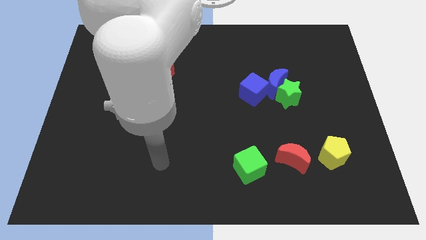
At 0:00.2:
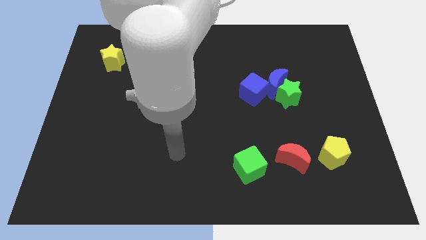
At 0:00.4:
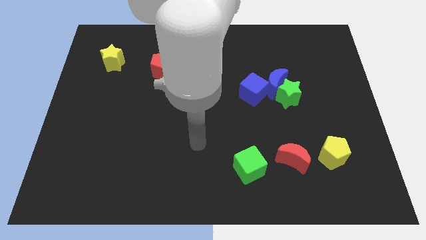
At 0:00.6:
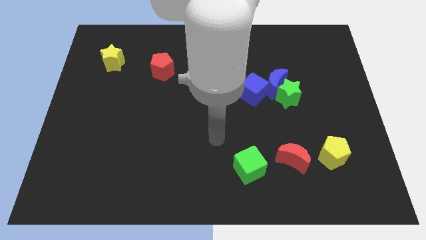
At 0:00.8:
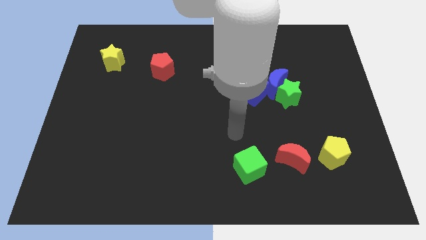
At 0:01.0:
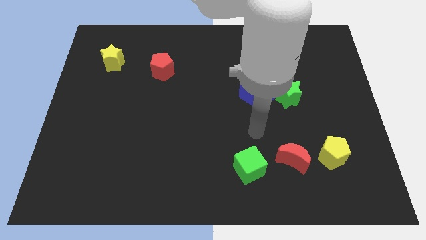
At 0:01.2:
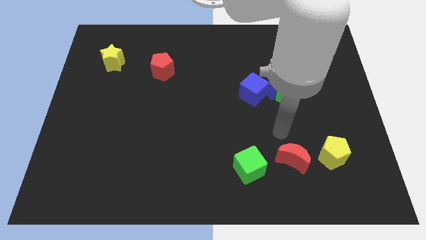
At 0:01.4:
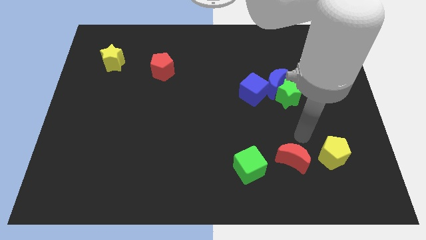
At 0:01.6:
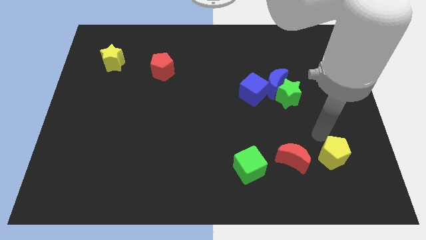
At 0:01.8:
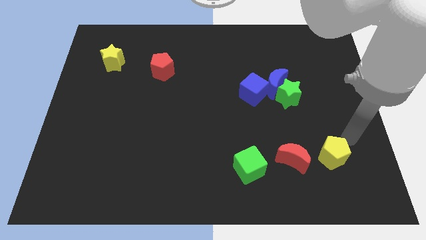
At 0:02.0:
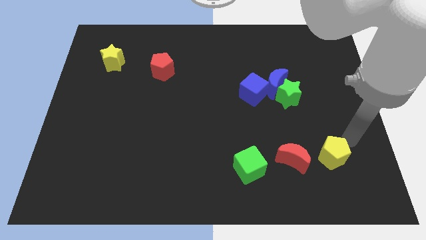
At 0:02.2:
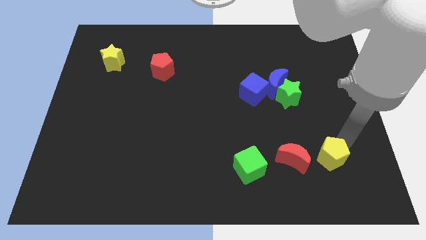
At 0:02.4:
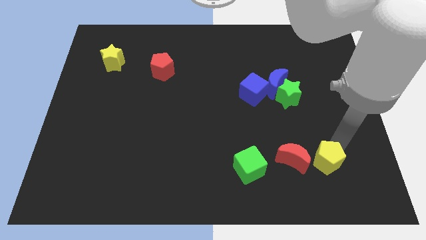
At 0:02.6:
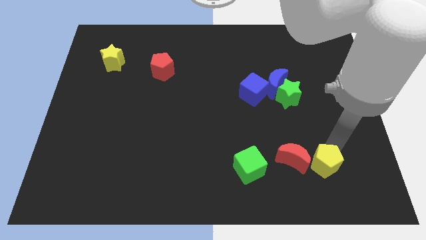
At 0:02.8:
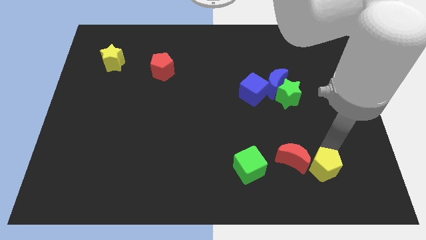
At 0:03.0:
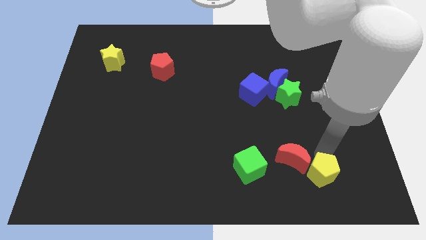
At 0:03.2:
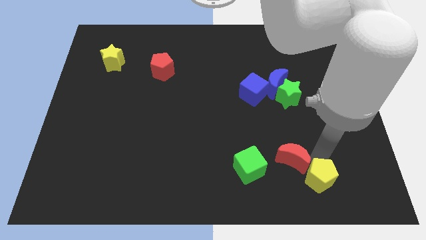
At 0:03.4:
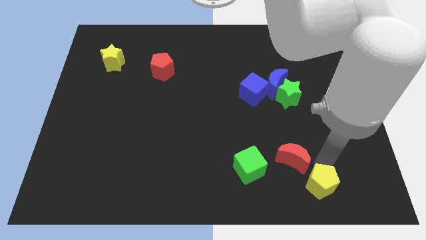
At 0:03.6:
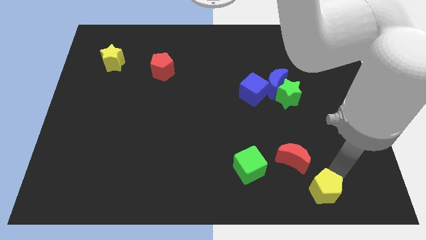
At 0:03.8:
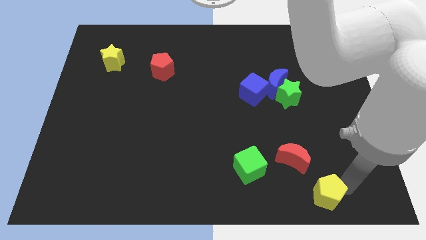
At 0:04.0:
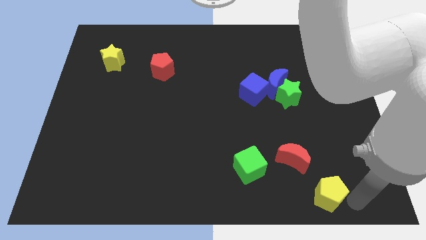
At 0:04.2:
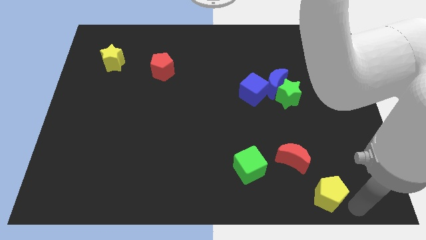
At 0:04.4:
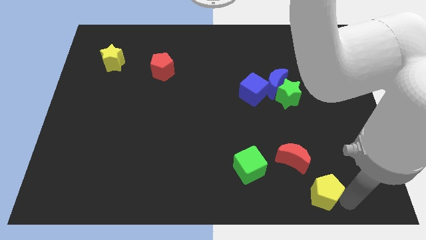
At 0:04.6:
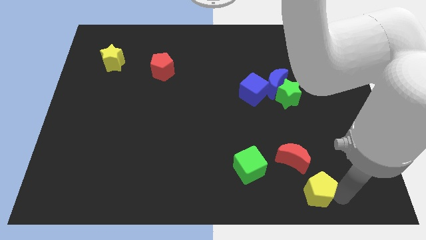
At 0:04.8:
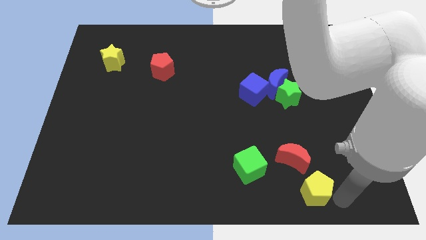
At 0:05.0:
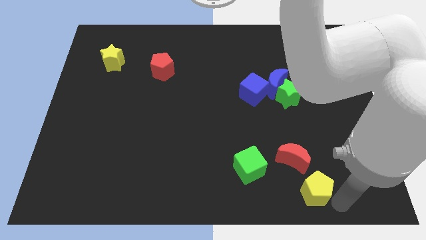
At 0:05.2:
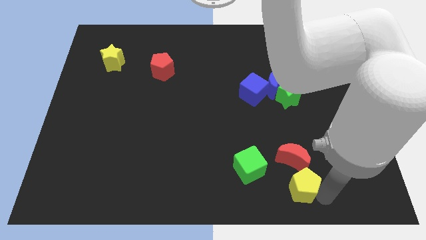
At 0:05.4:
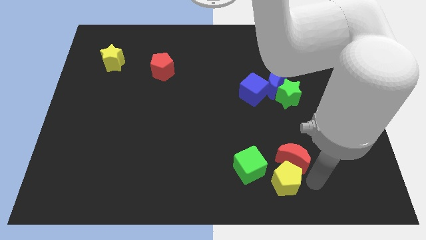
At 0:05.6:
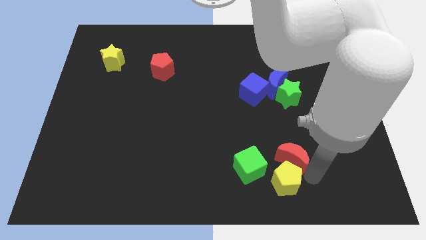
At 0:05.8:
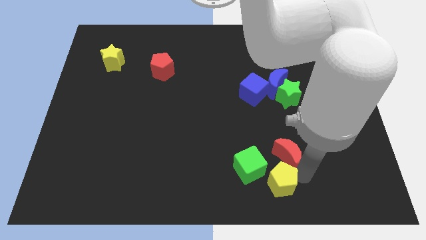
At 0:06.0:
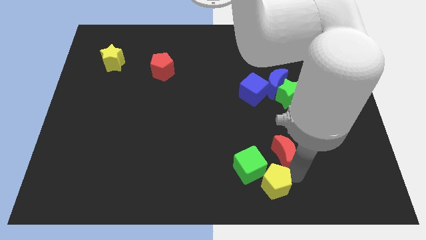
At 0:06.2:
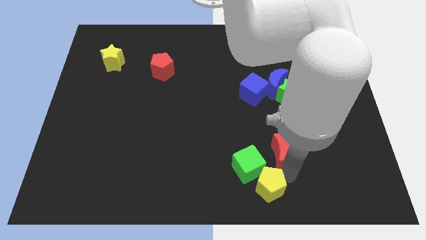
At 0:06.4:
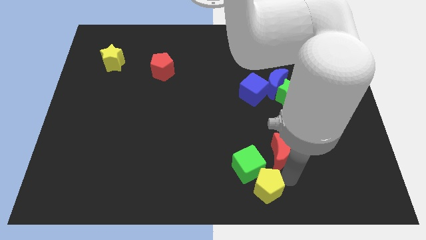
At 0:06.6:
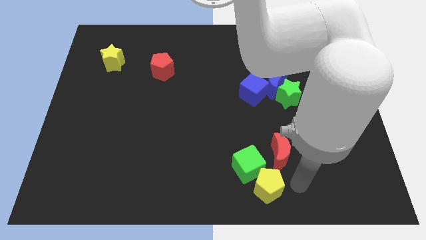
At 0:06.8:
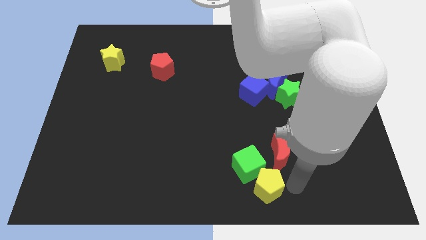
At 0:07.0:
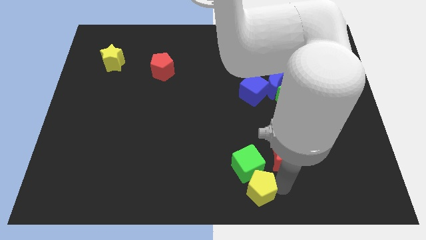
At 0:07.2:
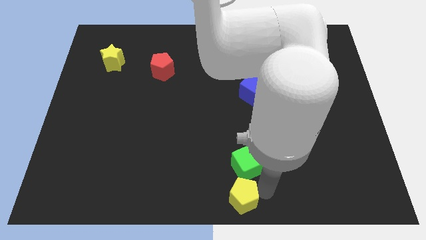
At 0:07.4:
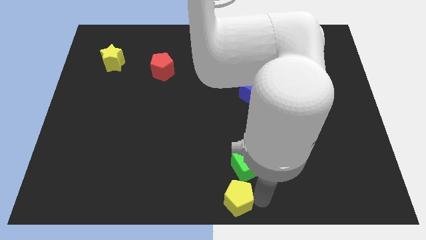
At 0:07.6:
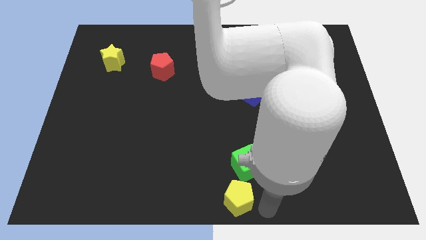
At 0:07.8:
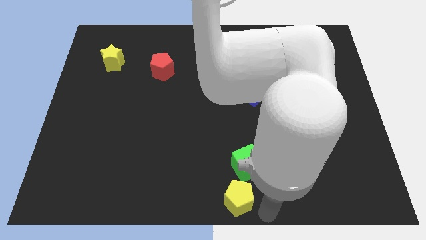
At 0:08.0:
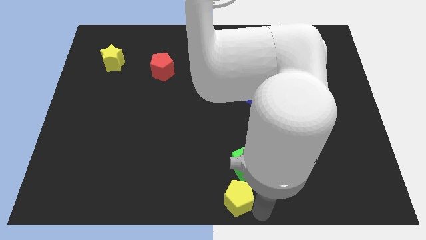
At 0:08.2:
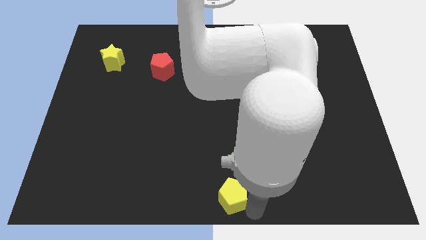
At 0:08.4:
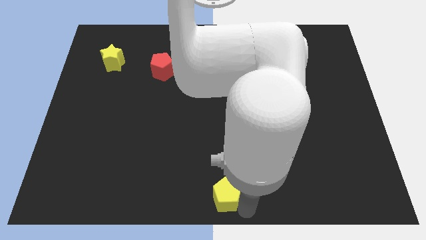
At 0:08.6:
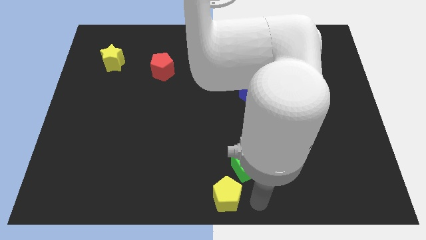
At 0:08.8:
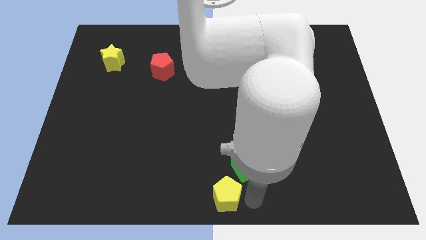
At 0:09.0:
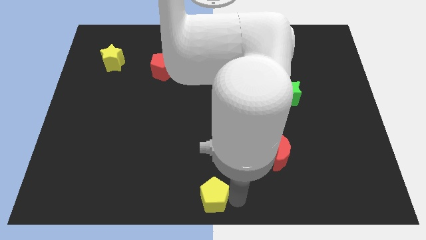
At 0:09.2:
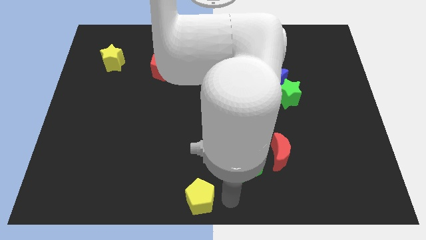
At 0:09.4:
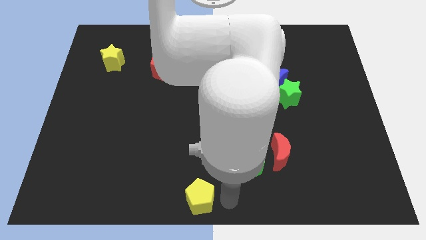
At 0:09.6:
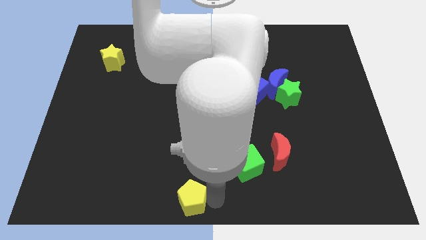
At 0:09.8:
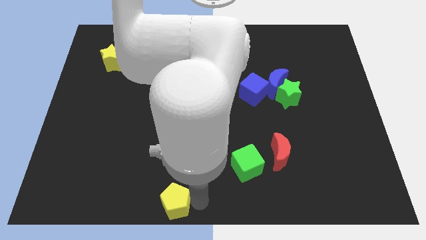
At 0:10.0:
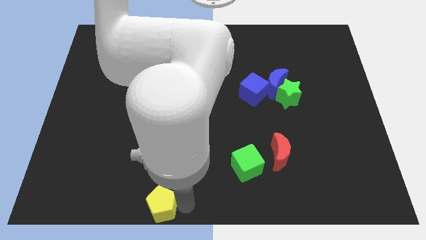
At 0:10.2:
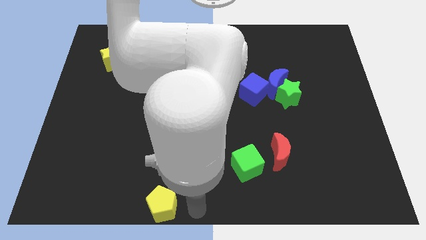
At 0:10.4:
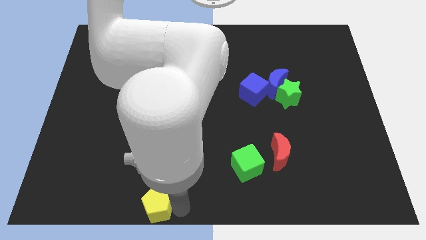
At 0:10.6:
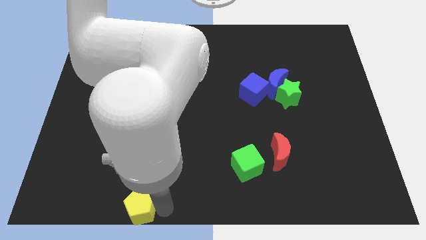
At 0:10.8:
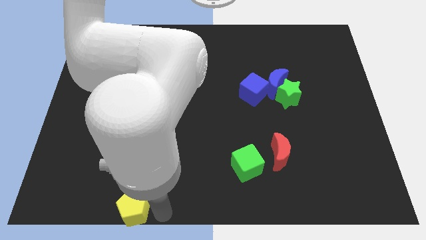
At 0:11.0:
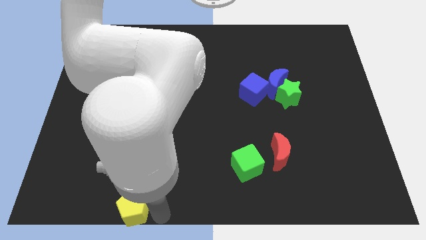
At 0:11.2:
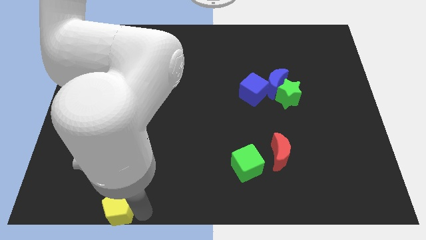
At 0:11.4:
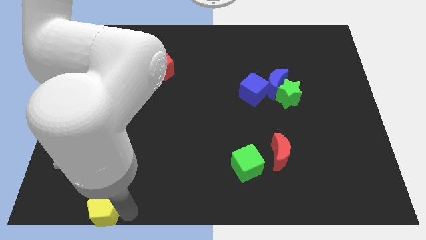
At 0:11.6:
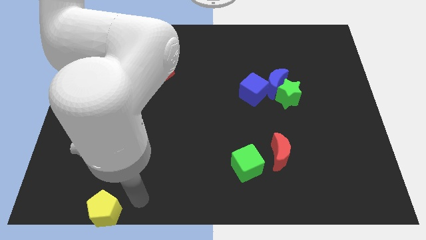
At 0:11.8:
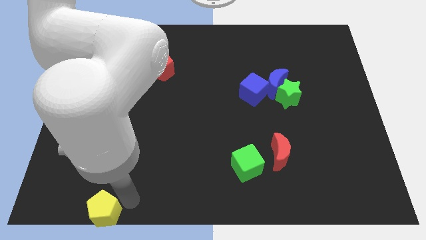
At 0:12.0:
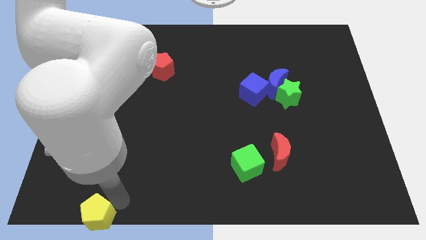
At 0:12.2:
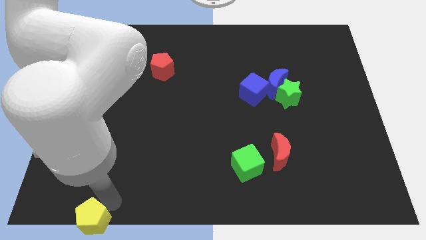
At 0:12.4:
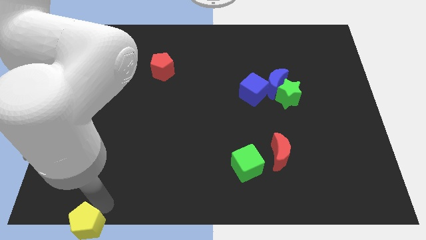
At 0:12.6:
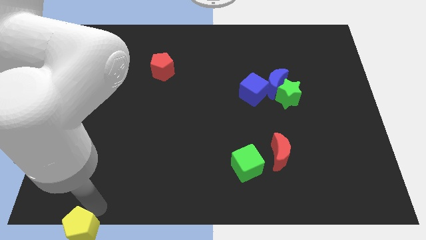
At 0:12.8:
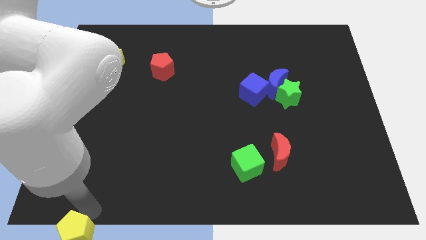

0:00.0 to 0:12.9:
move the yellow pentagon to the lower left corner
